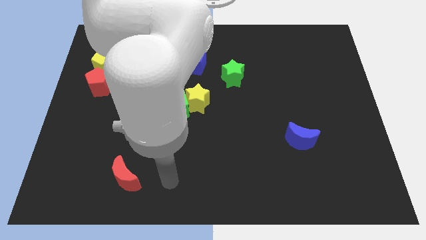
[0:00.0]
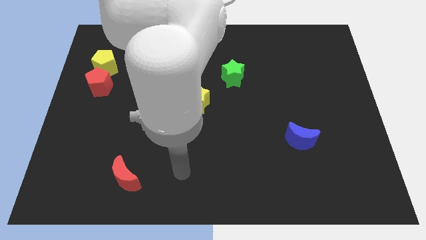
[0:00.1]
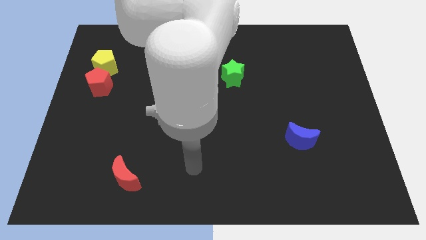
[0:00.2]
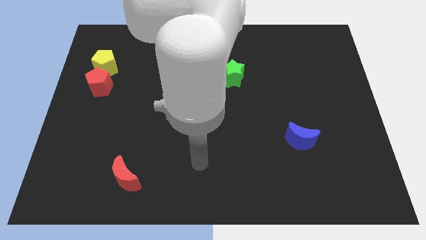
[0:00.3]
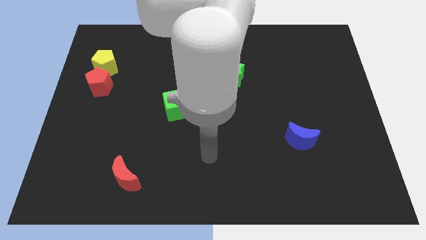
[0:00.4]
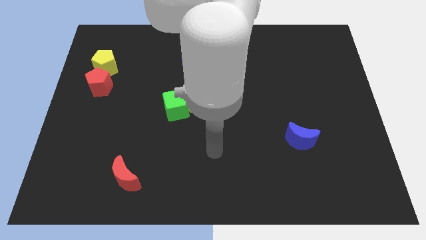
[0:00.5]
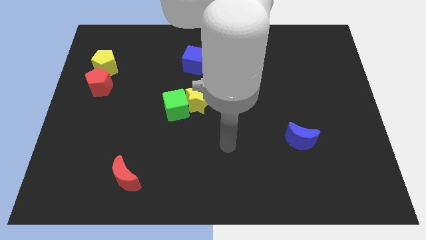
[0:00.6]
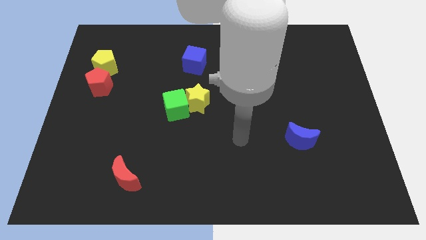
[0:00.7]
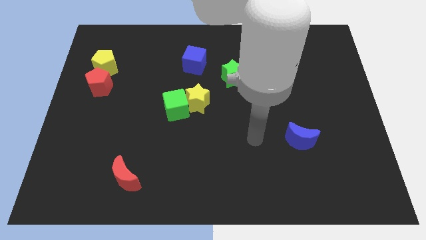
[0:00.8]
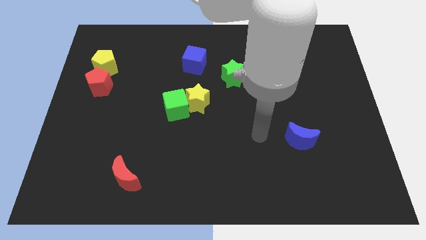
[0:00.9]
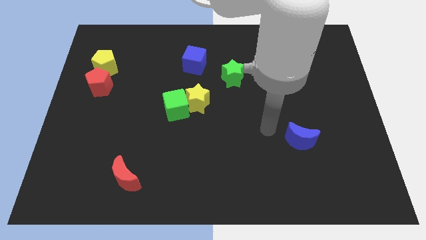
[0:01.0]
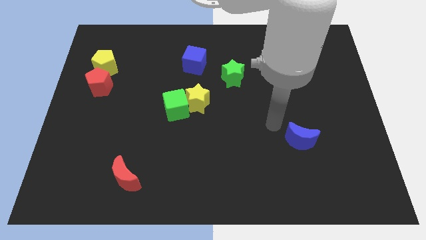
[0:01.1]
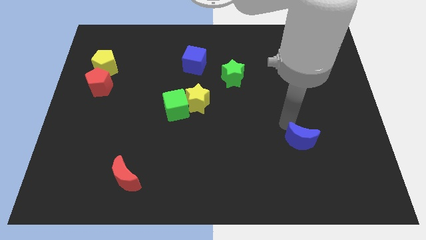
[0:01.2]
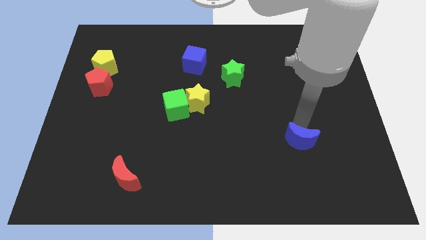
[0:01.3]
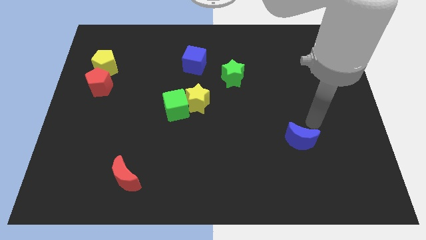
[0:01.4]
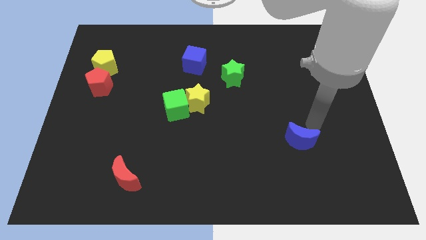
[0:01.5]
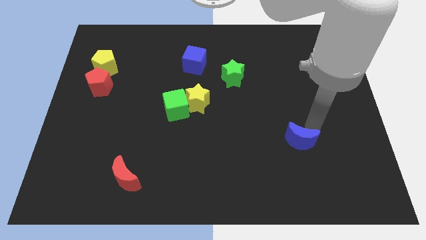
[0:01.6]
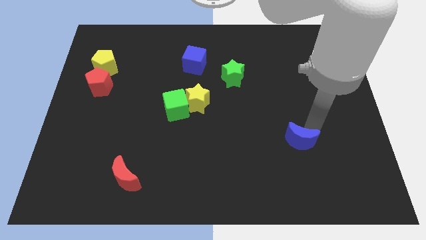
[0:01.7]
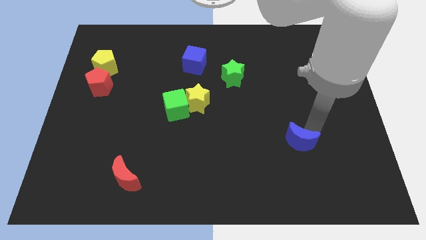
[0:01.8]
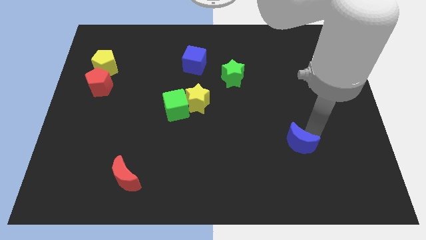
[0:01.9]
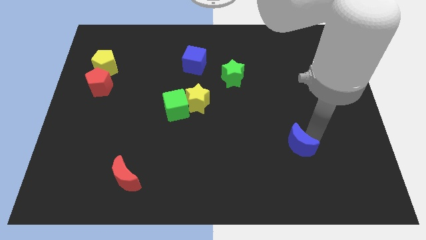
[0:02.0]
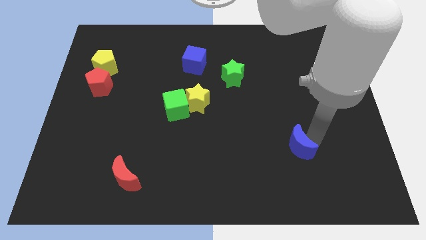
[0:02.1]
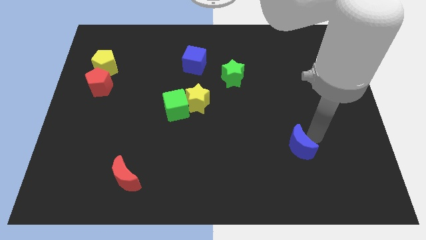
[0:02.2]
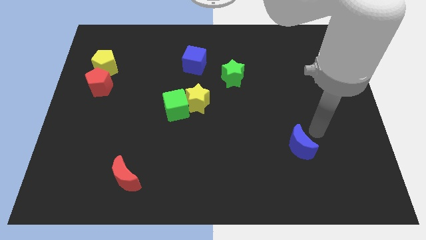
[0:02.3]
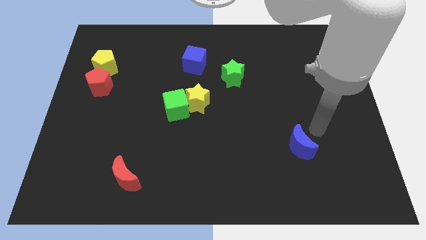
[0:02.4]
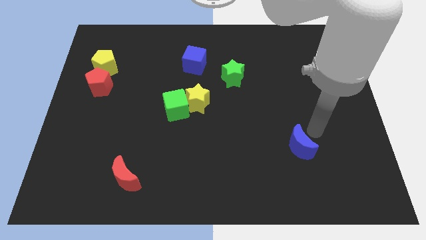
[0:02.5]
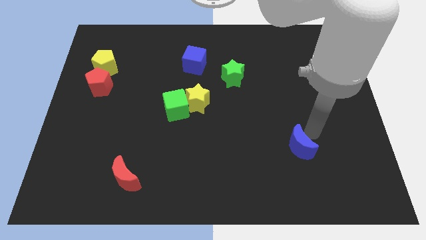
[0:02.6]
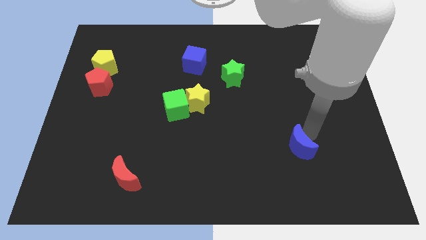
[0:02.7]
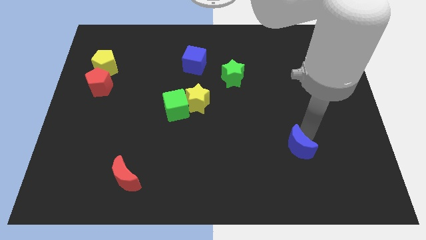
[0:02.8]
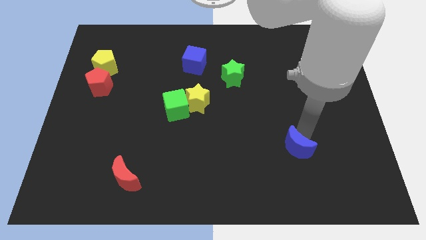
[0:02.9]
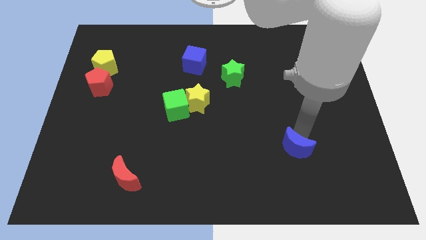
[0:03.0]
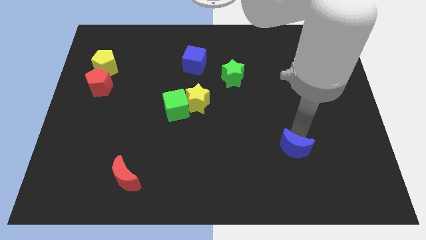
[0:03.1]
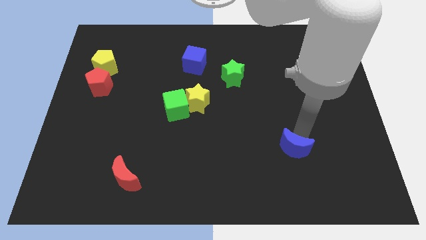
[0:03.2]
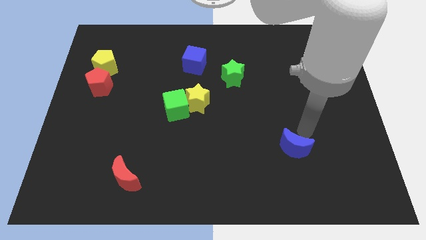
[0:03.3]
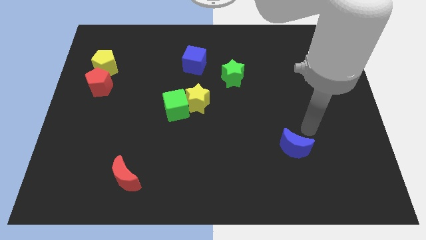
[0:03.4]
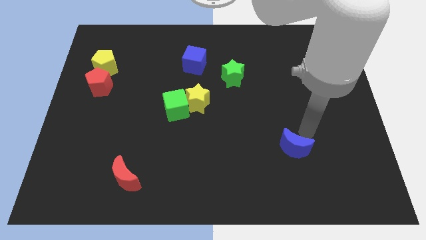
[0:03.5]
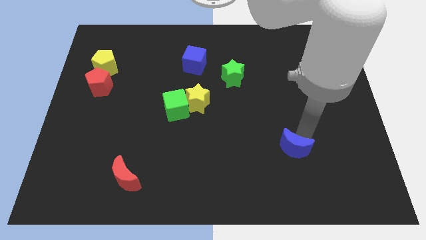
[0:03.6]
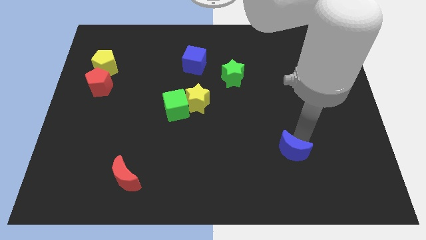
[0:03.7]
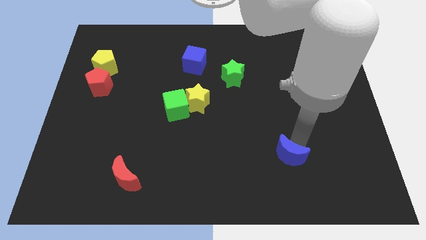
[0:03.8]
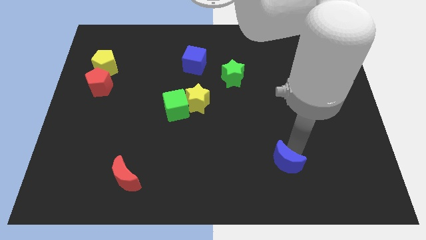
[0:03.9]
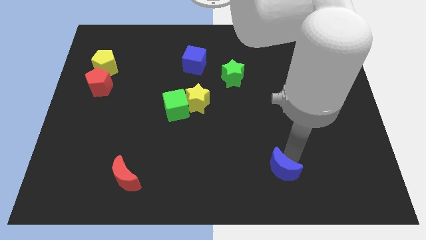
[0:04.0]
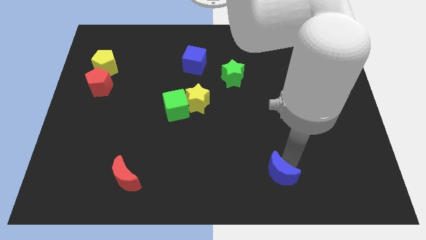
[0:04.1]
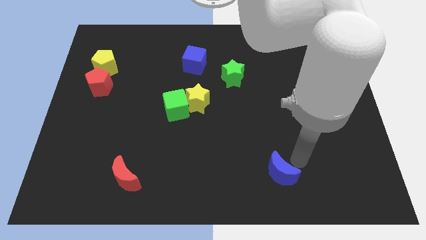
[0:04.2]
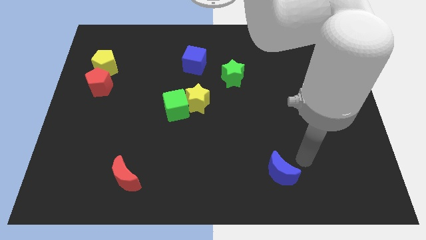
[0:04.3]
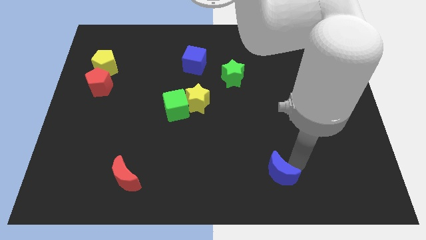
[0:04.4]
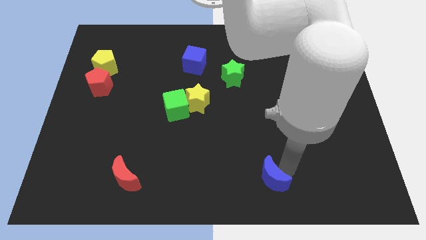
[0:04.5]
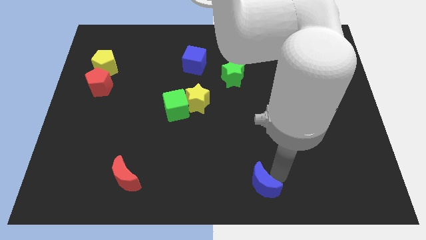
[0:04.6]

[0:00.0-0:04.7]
slide the blue moon to the bottom side

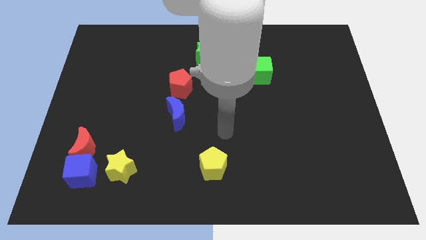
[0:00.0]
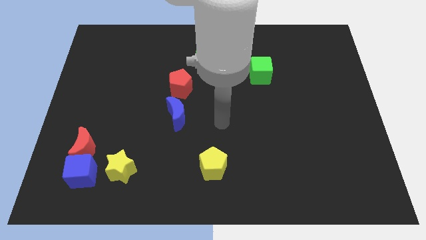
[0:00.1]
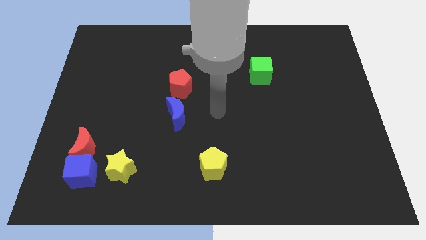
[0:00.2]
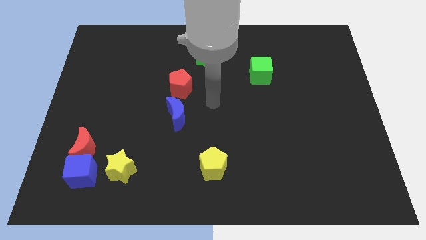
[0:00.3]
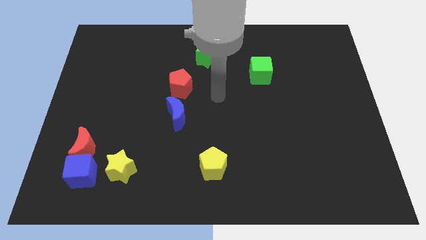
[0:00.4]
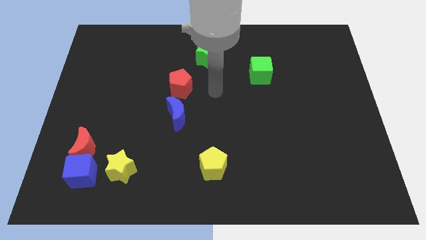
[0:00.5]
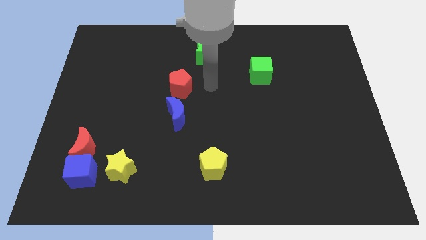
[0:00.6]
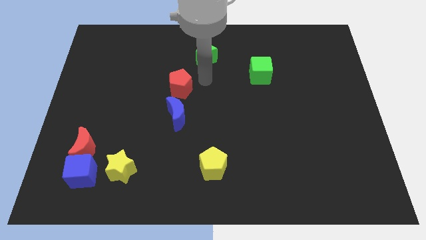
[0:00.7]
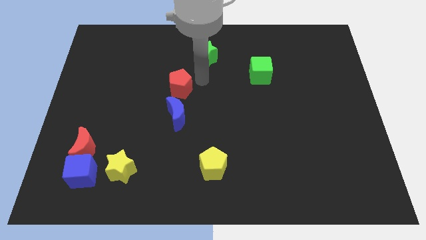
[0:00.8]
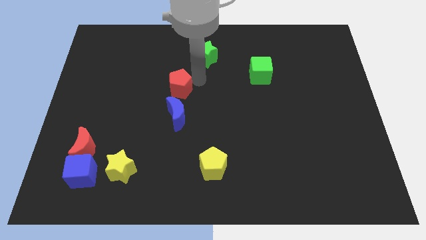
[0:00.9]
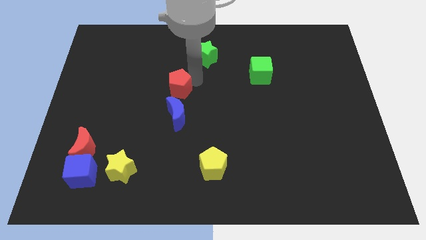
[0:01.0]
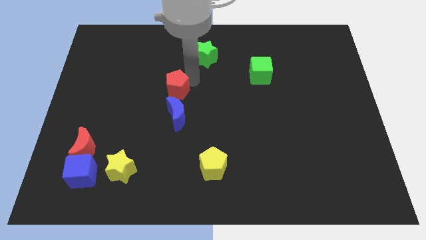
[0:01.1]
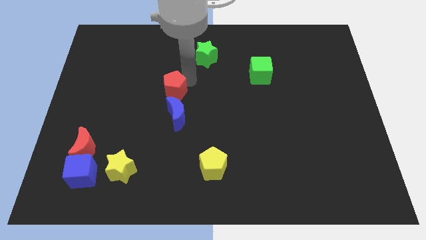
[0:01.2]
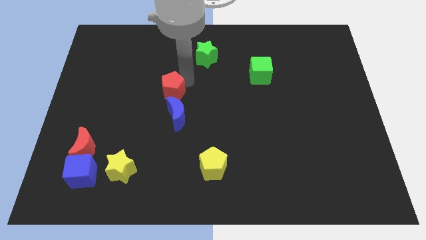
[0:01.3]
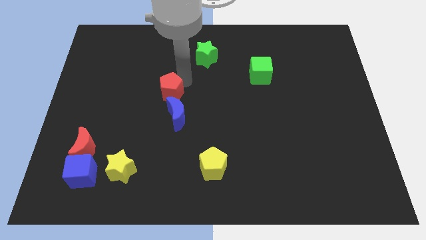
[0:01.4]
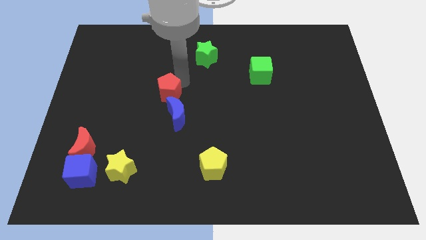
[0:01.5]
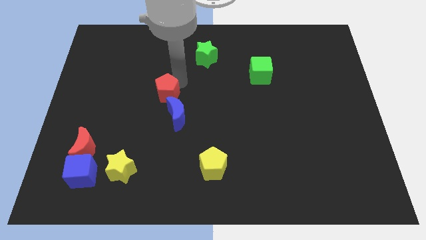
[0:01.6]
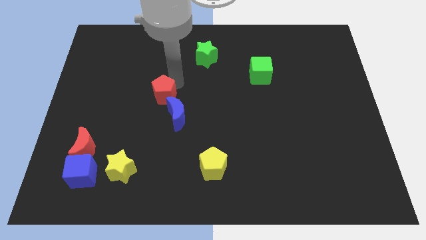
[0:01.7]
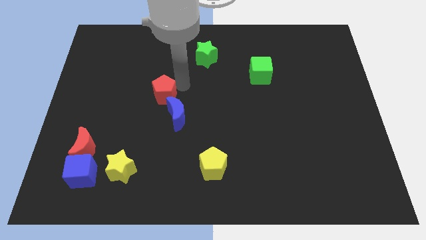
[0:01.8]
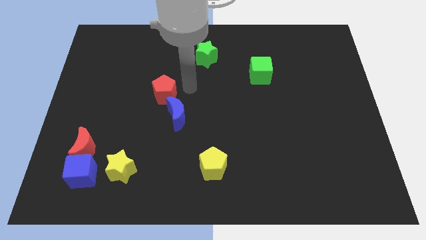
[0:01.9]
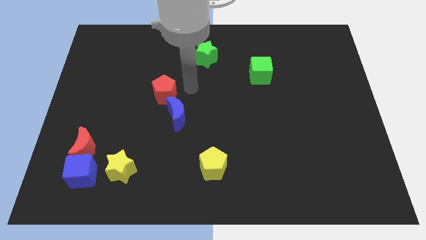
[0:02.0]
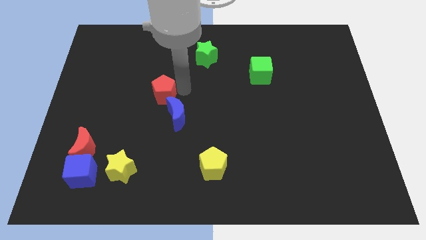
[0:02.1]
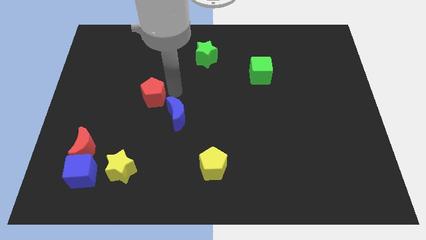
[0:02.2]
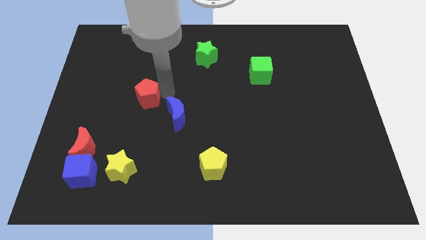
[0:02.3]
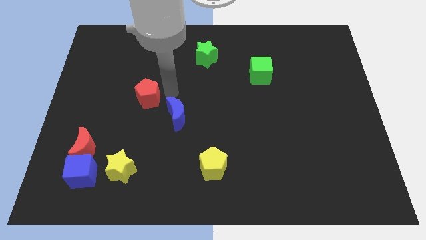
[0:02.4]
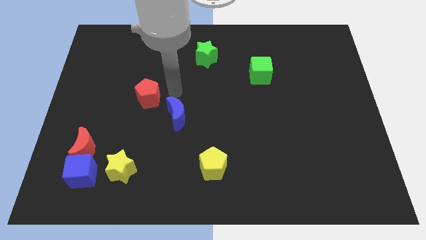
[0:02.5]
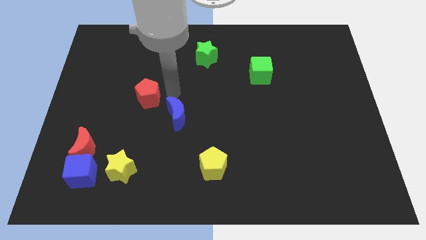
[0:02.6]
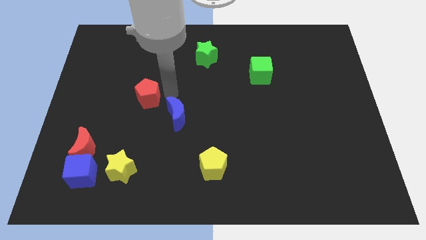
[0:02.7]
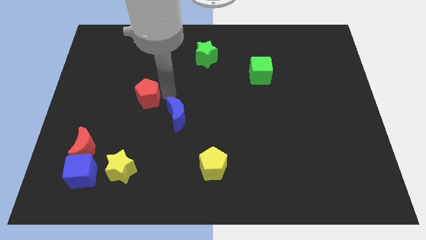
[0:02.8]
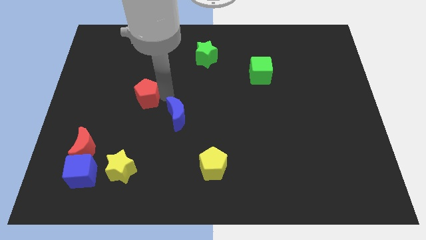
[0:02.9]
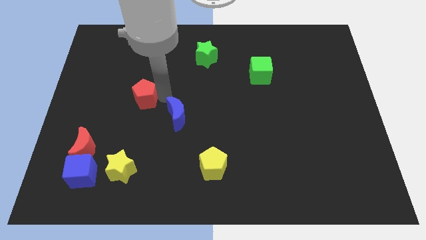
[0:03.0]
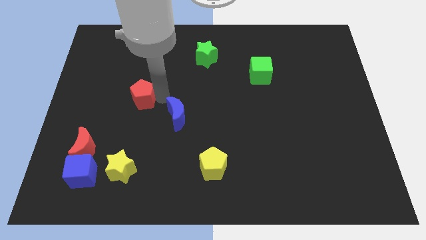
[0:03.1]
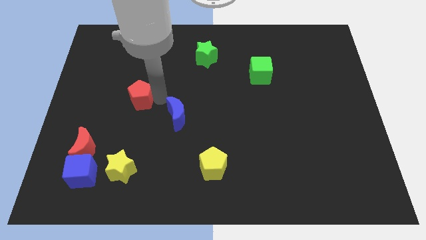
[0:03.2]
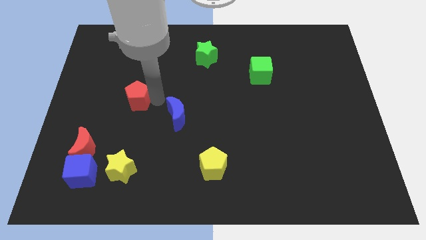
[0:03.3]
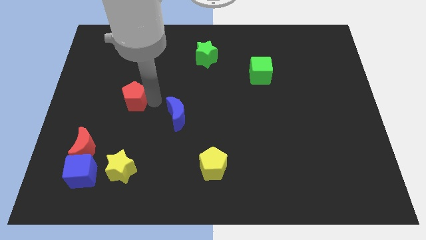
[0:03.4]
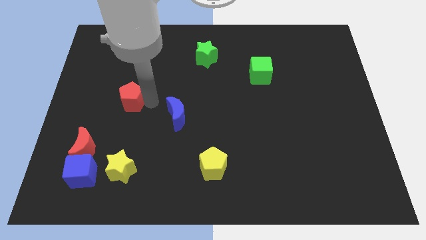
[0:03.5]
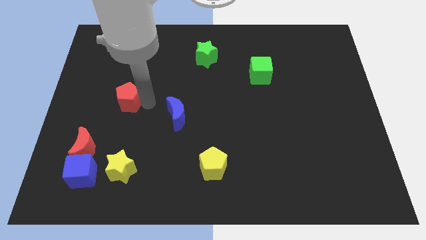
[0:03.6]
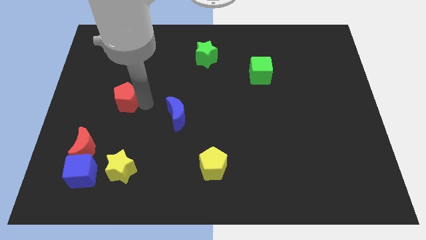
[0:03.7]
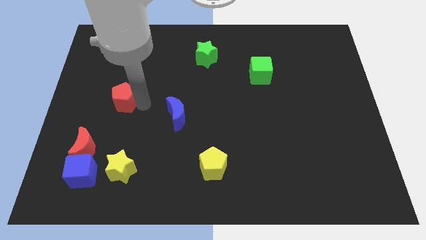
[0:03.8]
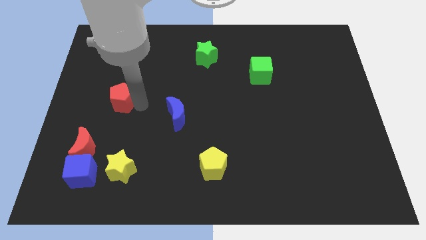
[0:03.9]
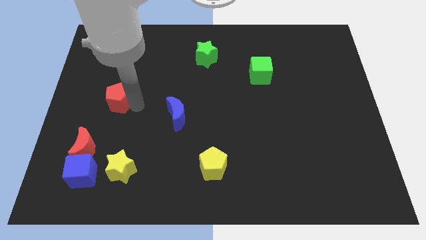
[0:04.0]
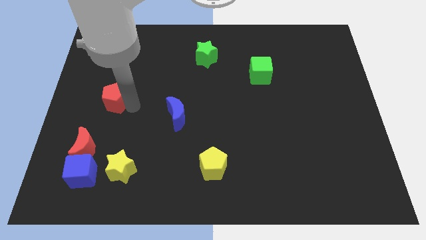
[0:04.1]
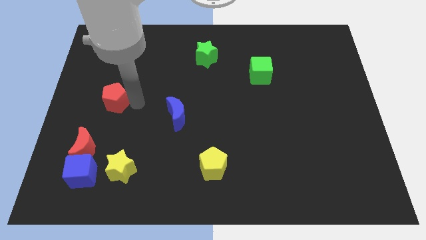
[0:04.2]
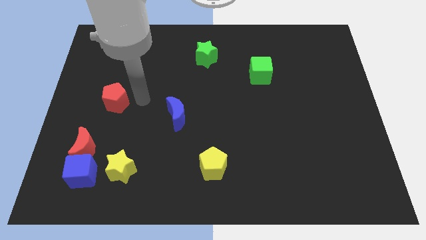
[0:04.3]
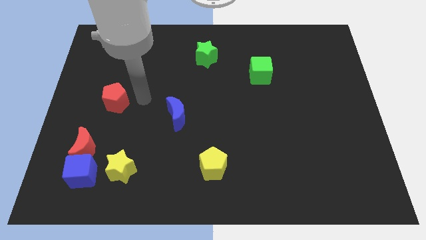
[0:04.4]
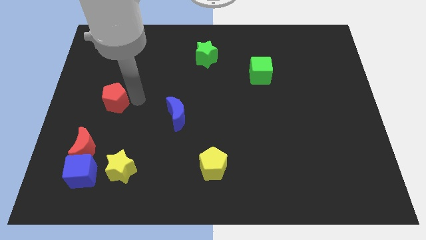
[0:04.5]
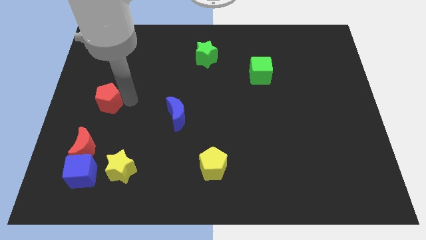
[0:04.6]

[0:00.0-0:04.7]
put the red pentagon to the left side
